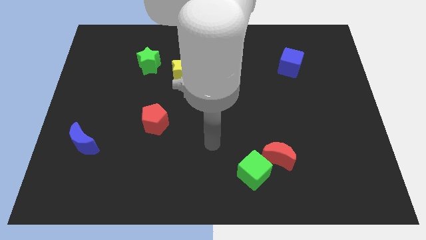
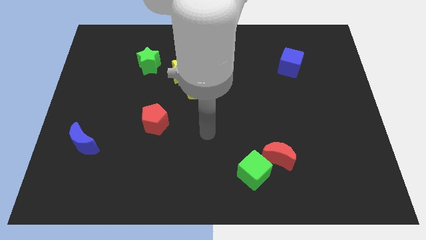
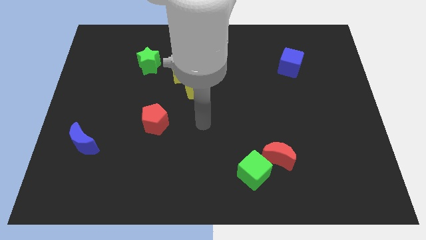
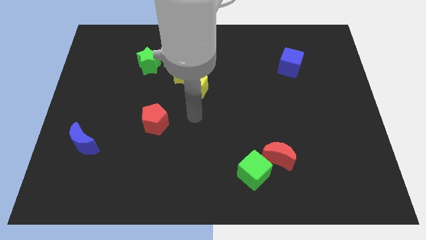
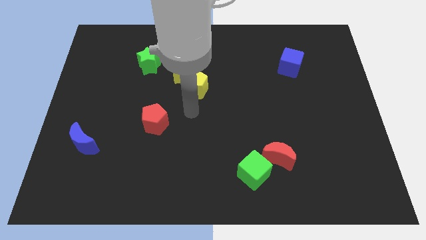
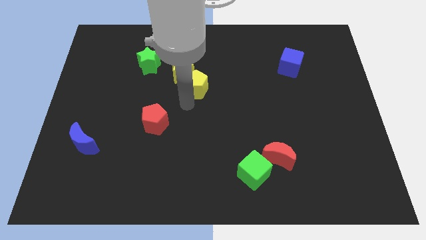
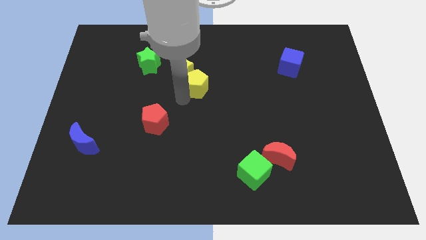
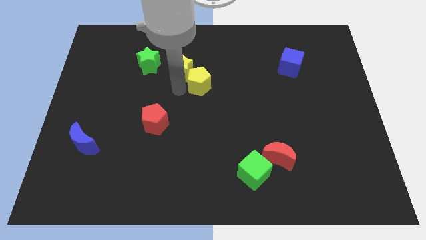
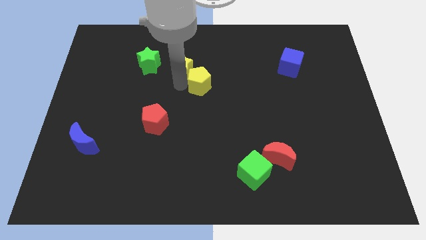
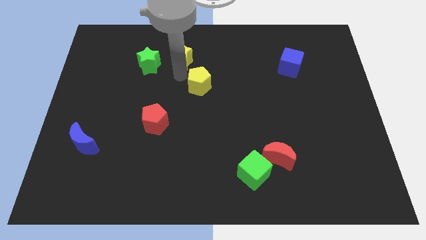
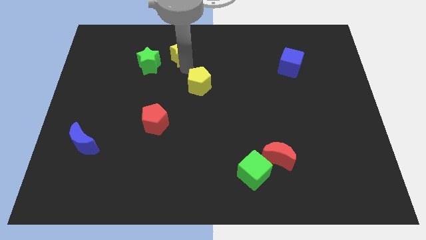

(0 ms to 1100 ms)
pull the yellow pentagon apart from the yellow star

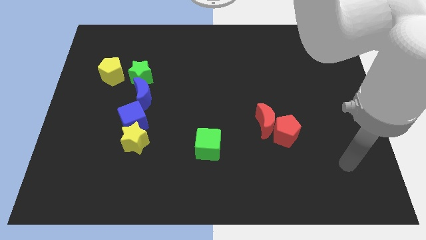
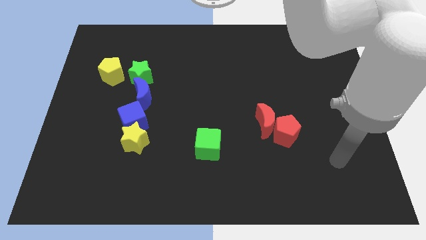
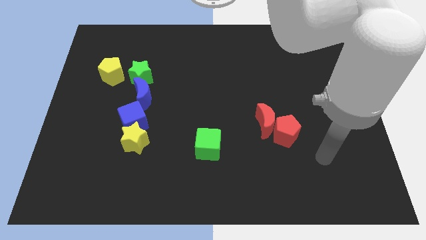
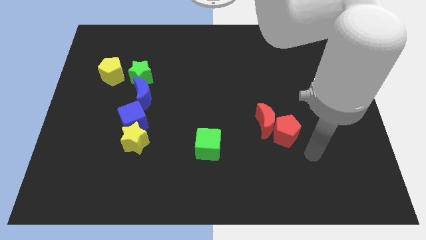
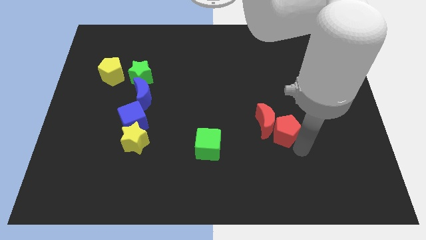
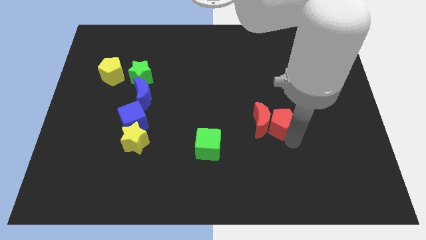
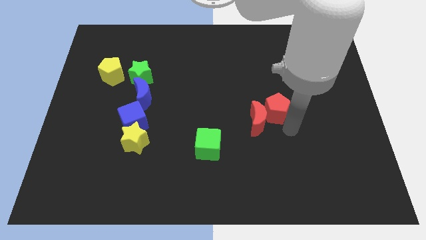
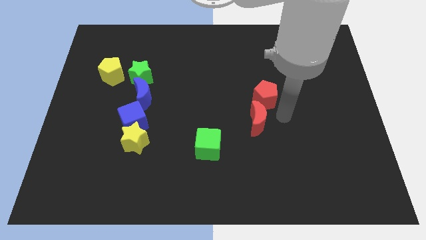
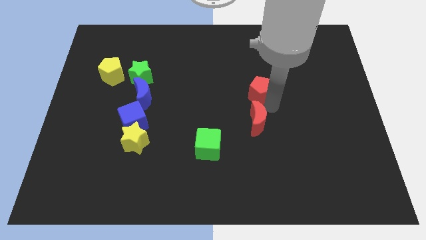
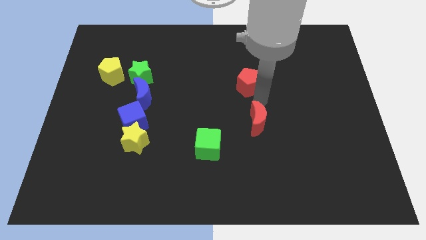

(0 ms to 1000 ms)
move the red moon away from the red pentagon

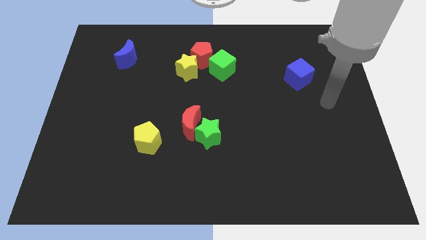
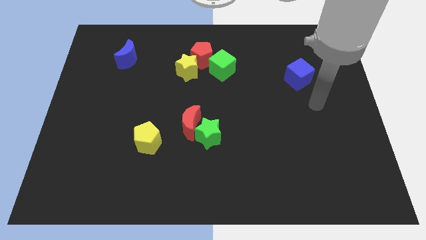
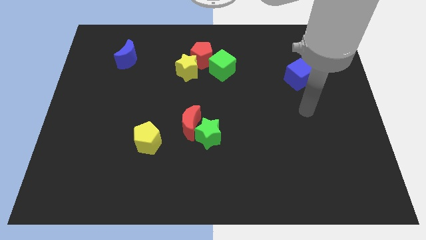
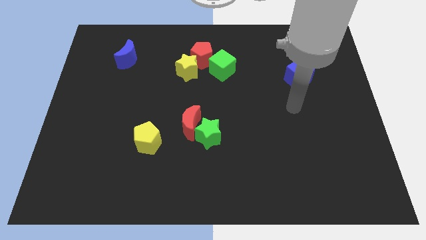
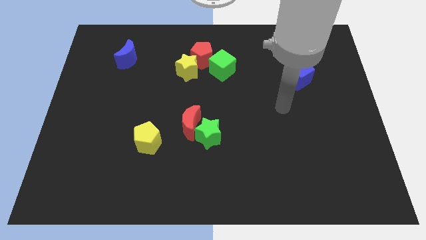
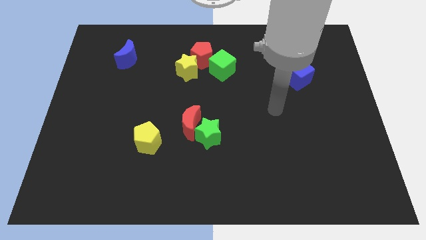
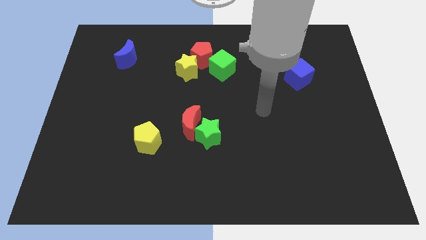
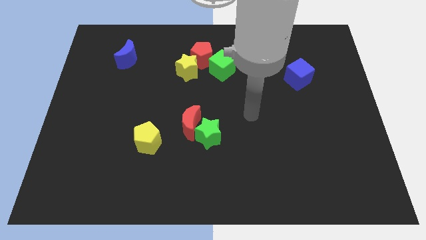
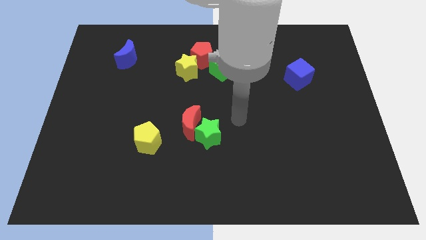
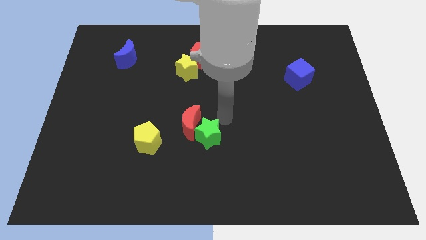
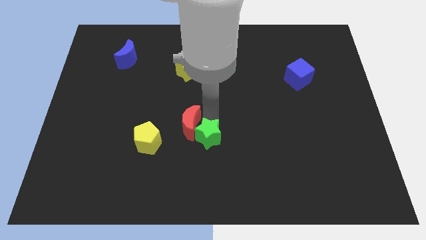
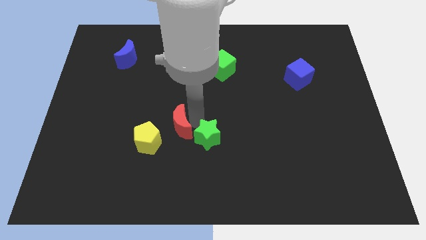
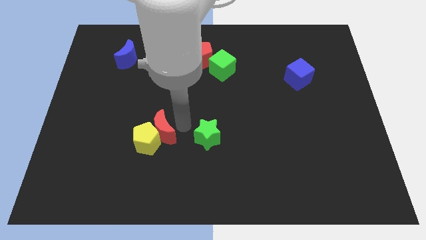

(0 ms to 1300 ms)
move the green star away from the red moon

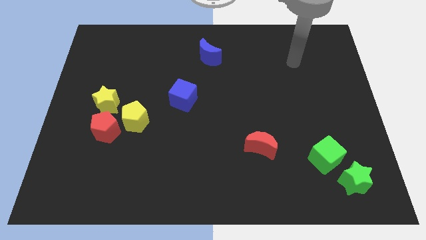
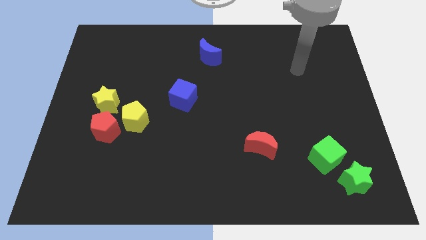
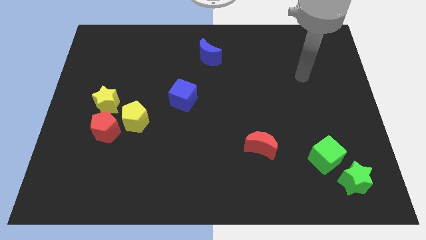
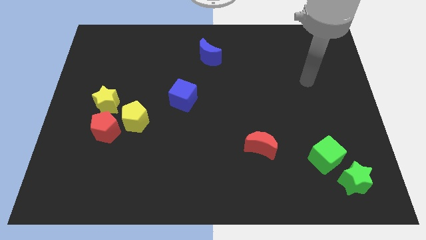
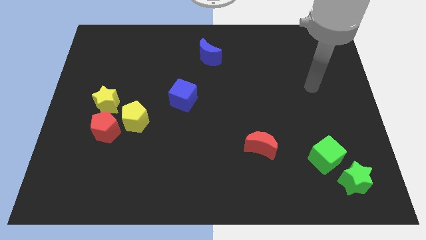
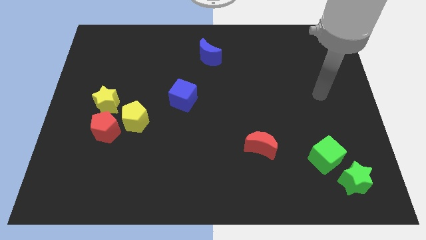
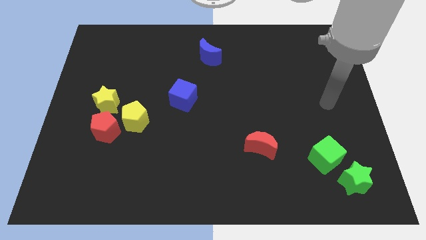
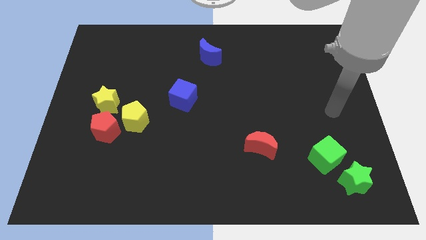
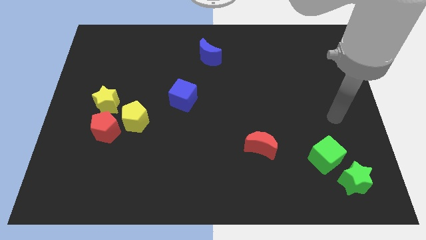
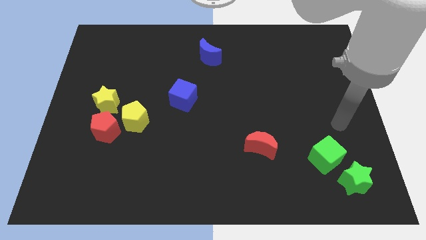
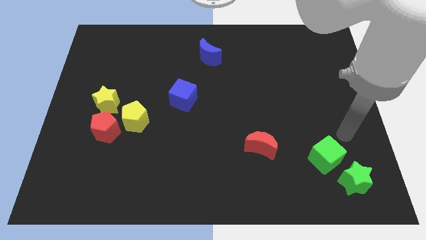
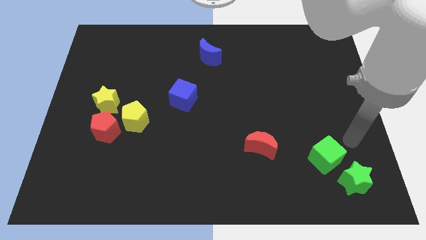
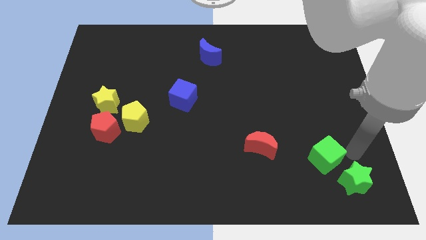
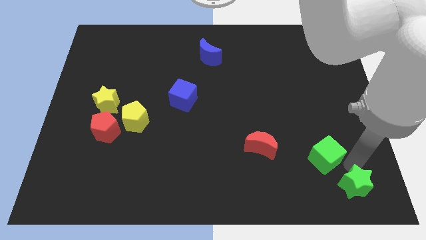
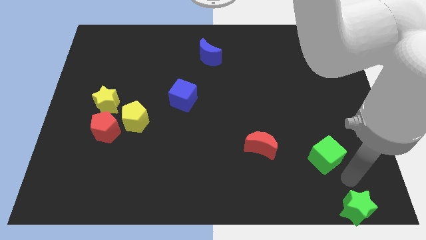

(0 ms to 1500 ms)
move the green cube away from the green star

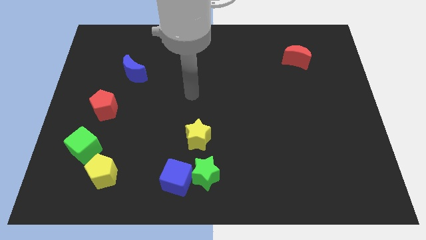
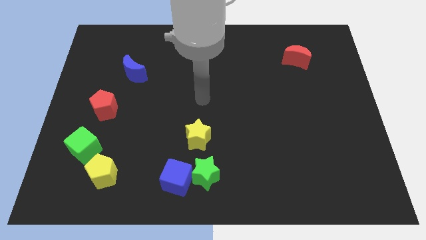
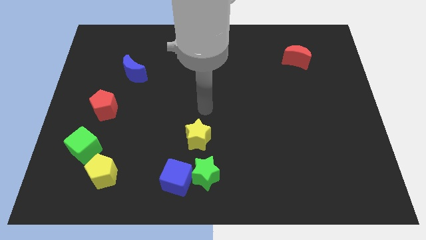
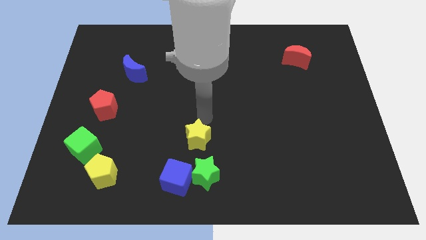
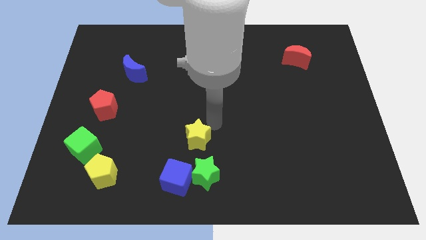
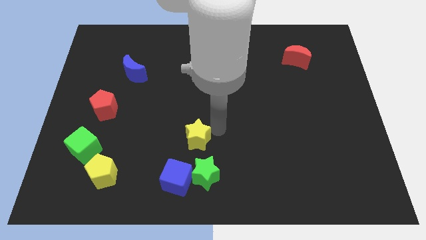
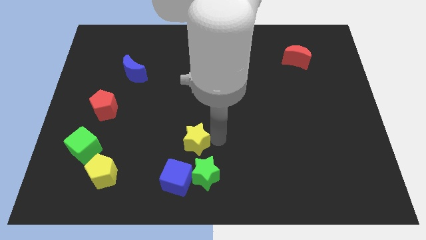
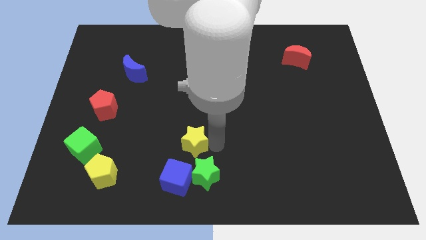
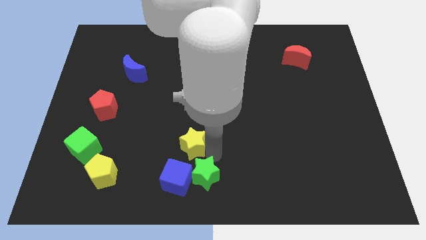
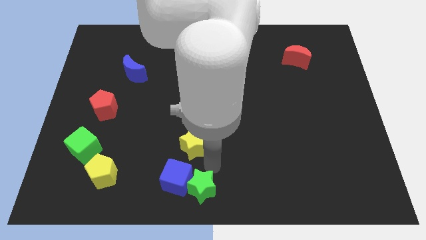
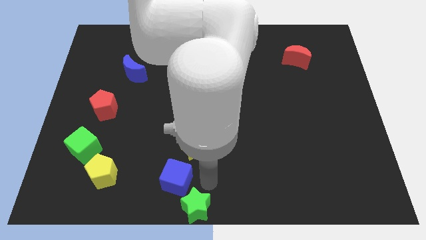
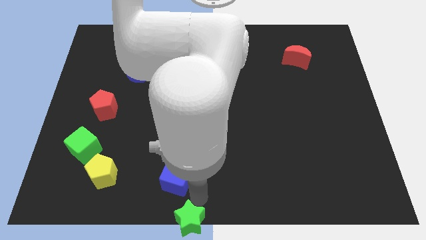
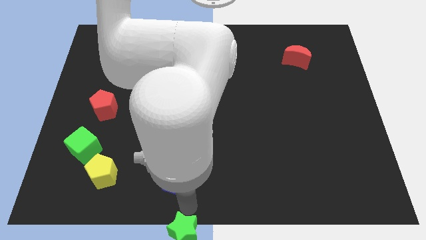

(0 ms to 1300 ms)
separate the blue cube from the green star

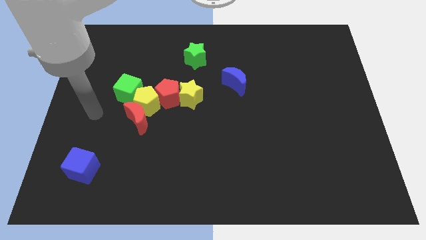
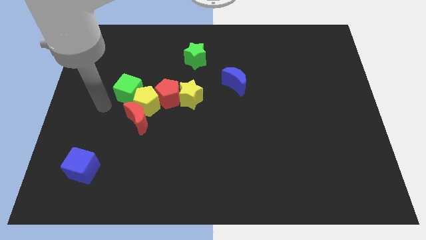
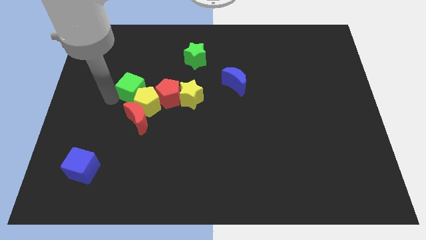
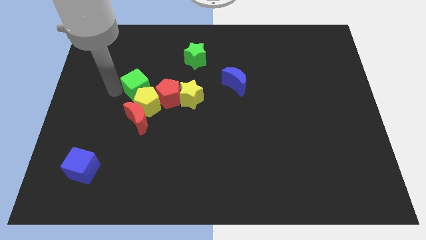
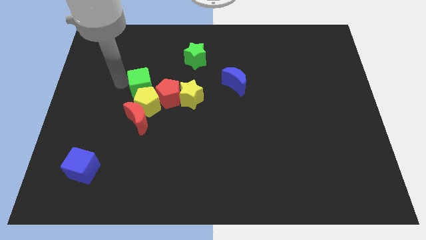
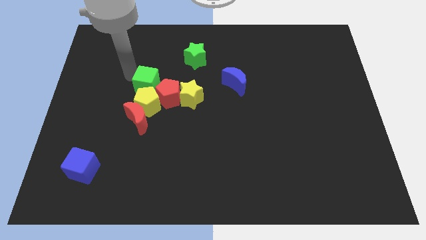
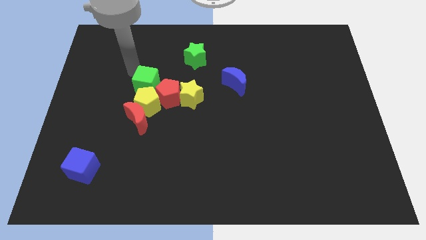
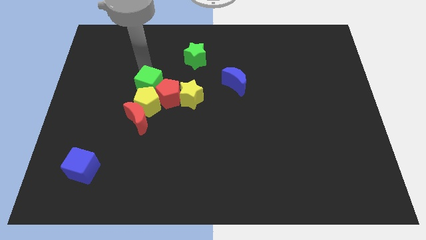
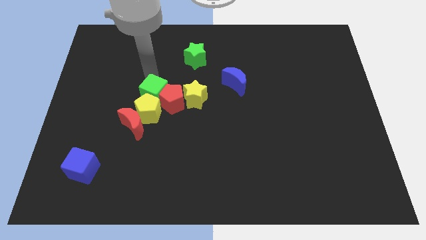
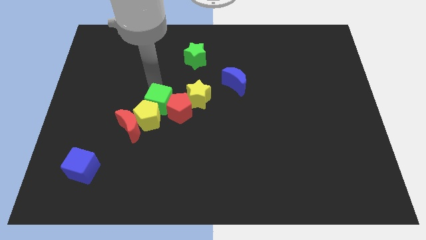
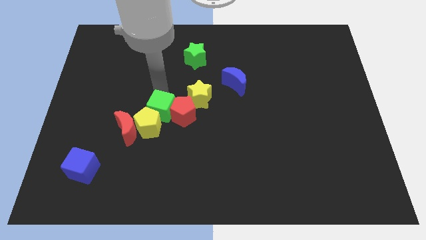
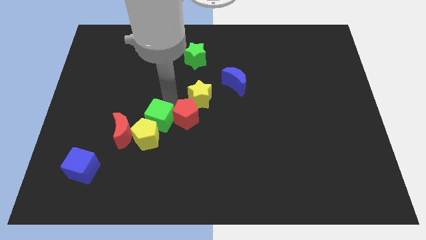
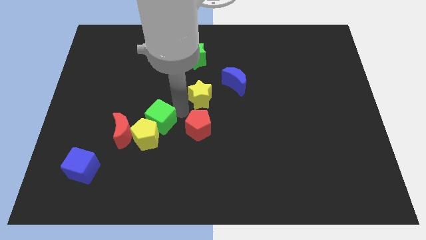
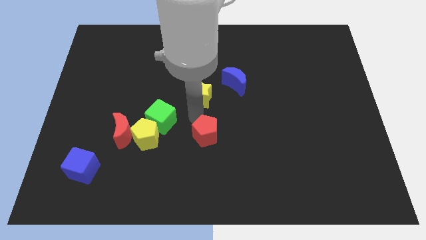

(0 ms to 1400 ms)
separate the yellow star from the red pentagon

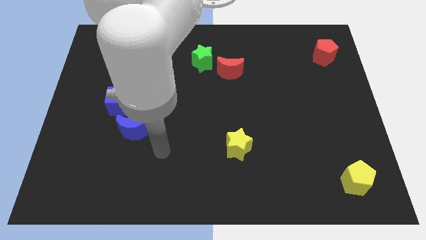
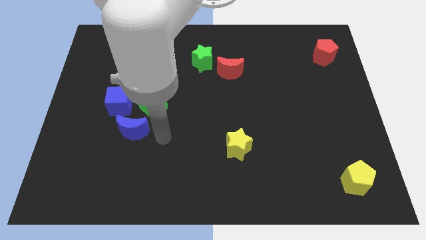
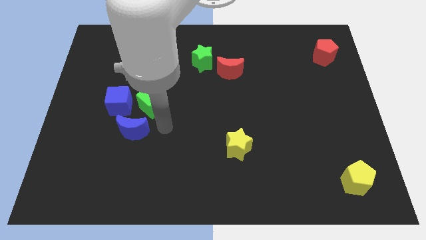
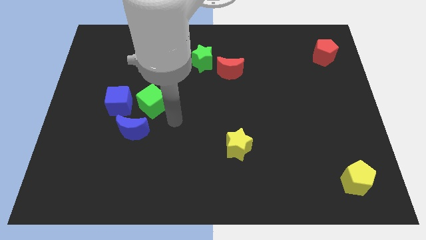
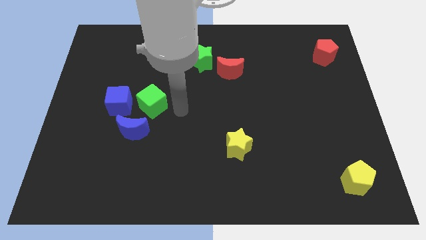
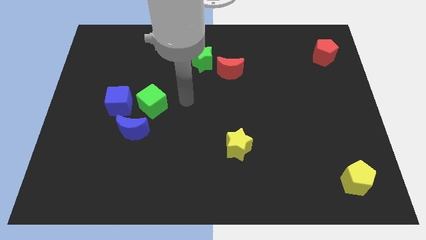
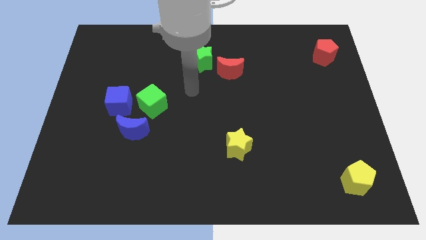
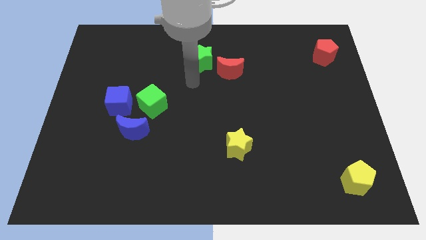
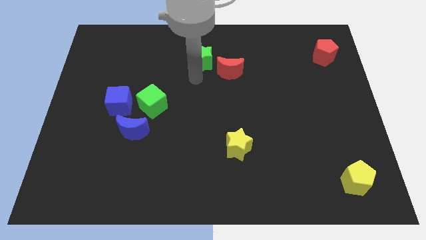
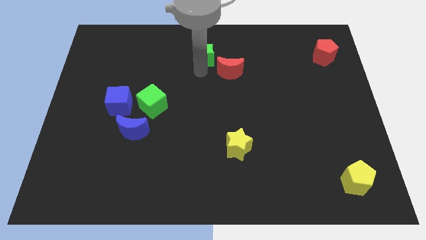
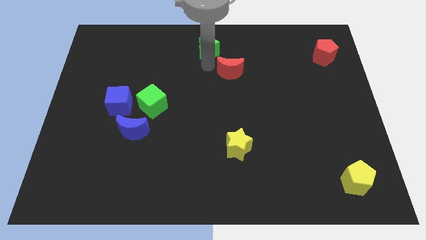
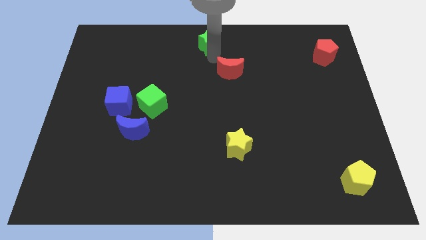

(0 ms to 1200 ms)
separate the red moon from the green star

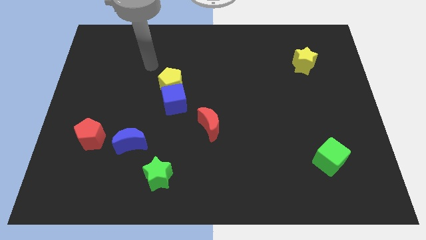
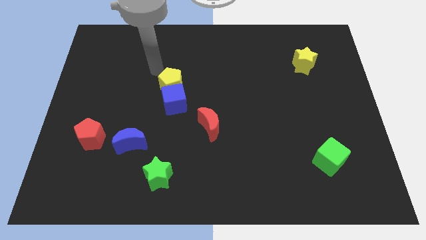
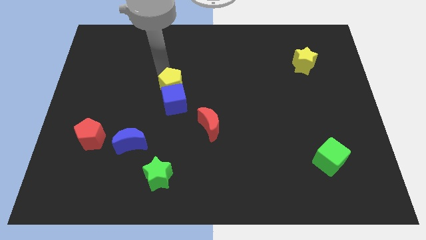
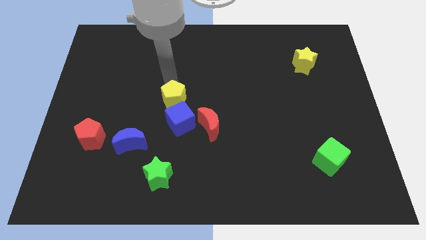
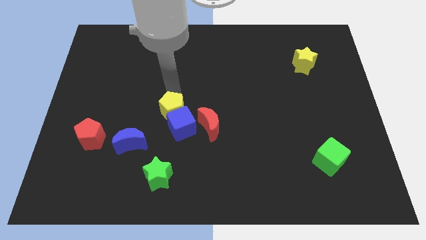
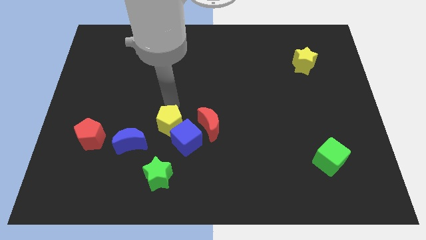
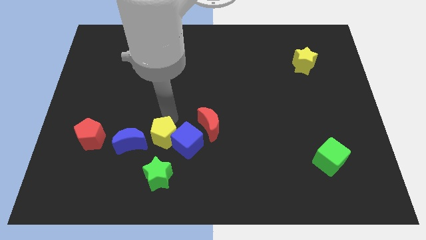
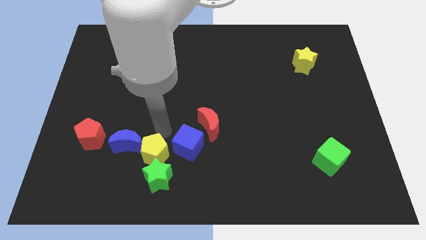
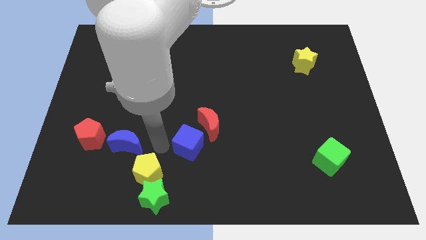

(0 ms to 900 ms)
separate the blue cube from the yellow pentagon
